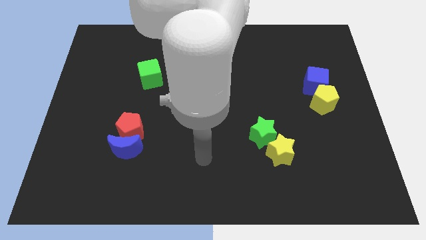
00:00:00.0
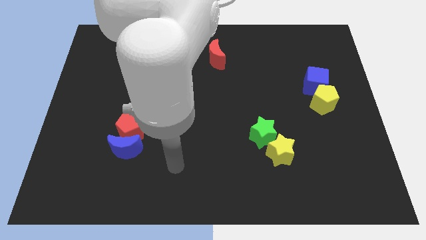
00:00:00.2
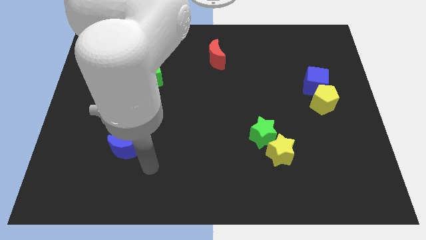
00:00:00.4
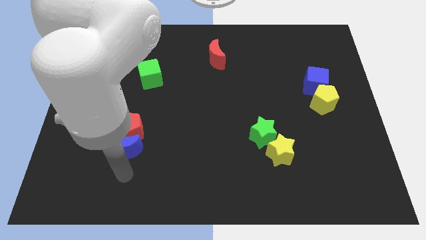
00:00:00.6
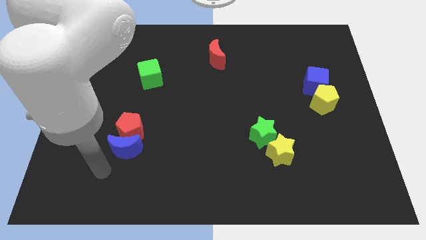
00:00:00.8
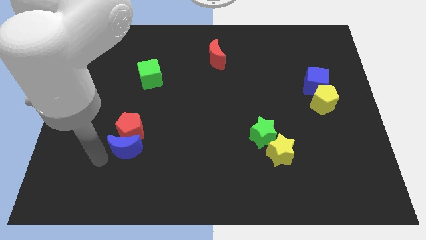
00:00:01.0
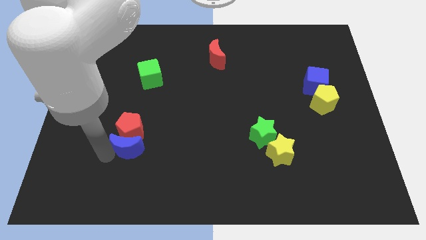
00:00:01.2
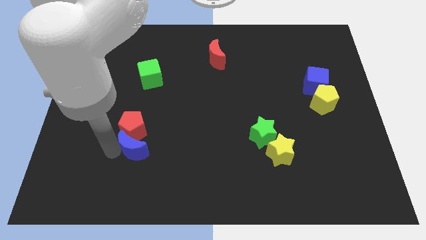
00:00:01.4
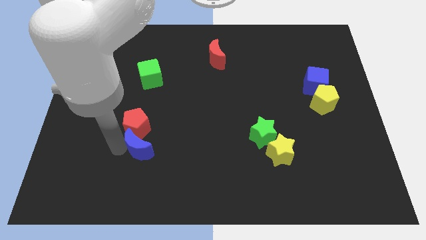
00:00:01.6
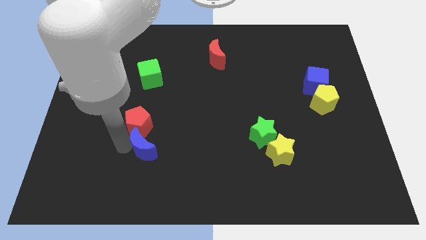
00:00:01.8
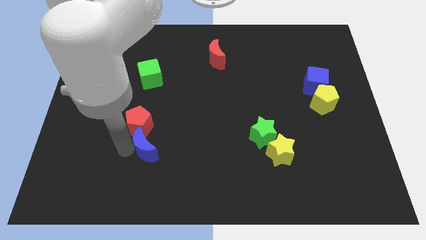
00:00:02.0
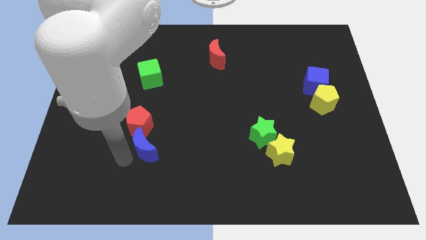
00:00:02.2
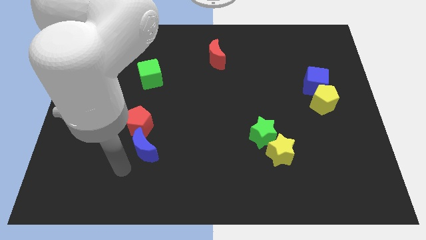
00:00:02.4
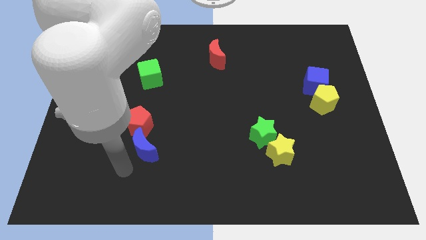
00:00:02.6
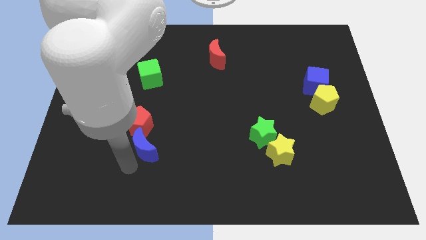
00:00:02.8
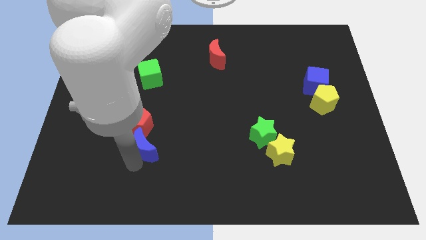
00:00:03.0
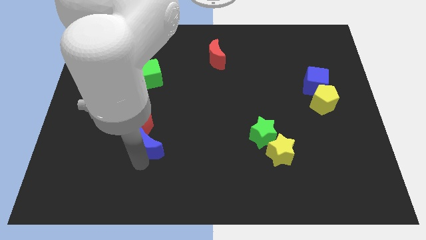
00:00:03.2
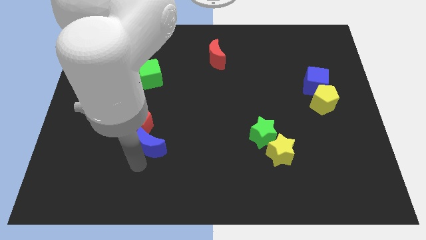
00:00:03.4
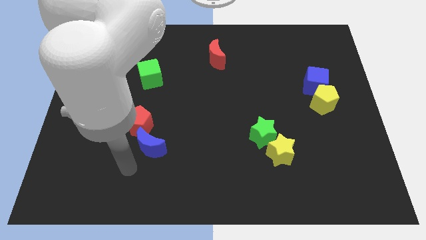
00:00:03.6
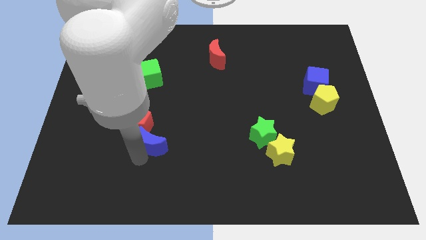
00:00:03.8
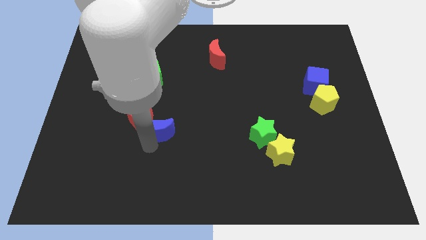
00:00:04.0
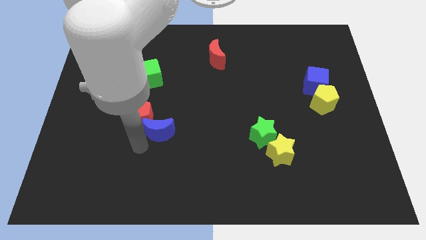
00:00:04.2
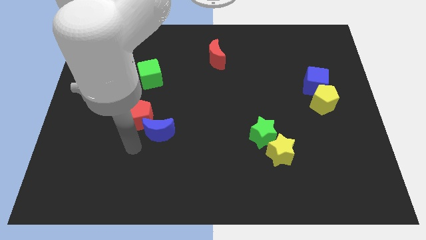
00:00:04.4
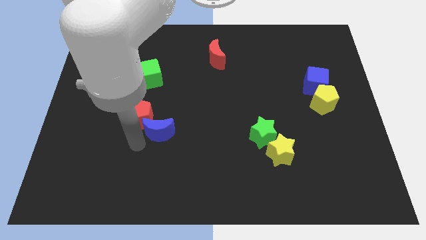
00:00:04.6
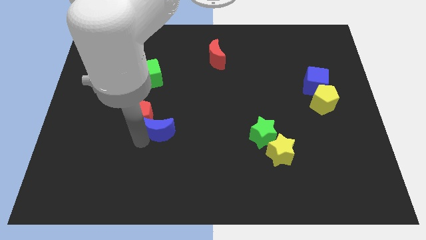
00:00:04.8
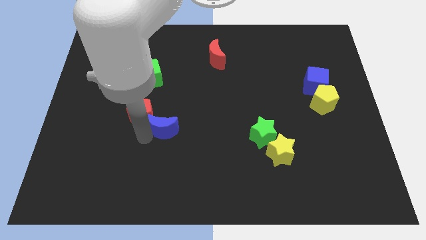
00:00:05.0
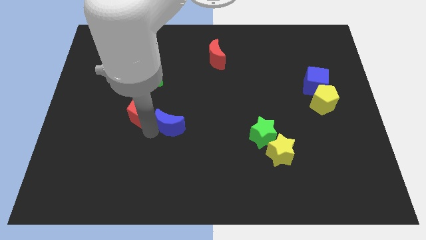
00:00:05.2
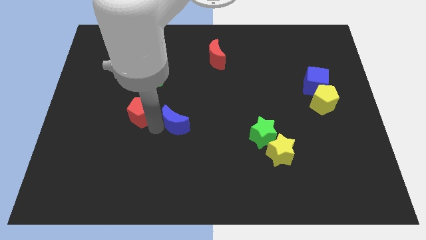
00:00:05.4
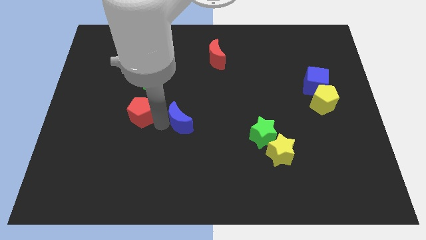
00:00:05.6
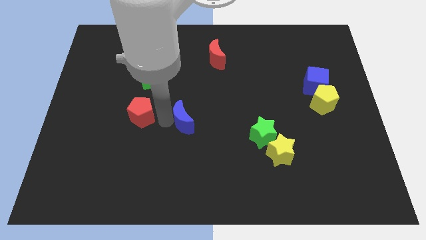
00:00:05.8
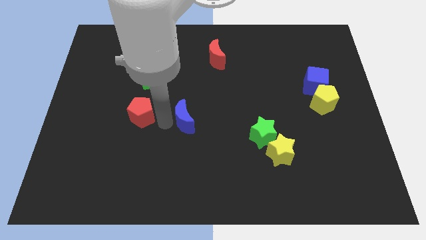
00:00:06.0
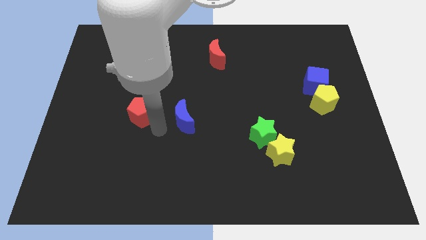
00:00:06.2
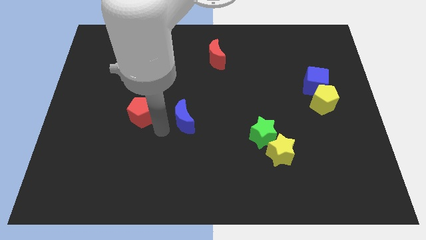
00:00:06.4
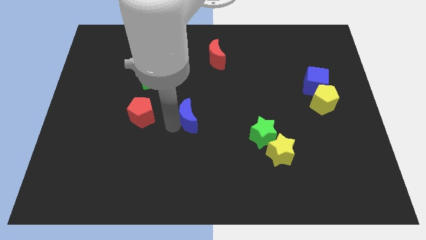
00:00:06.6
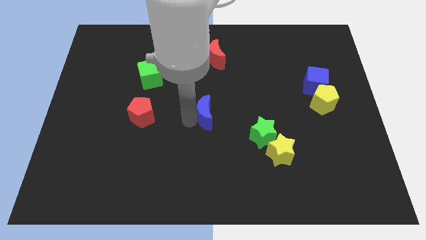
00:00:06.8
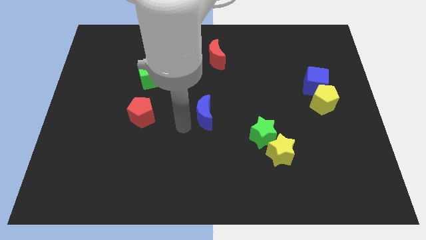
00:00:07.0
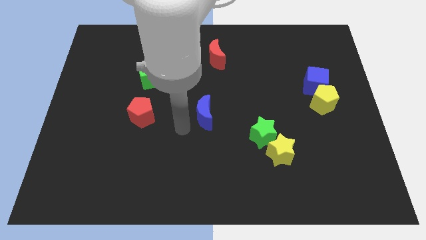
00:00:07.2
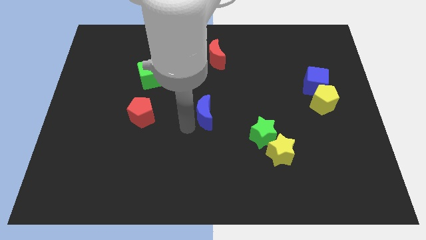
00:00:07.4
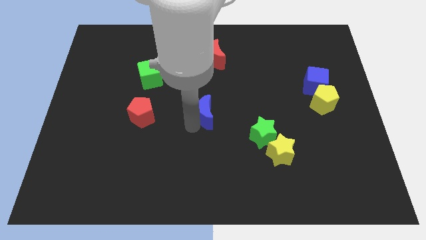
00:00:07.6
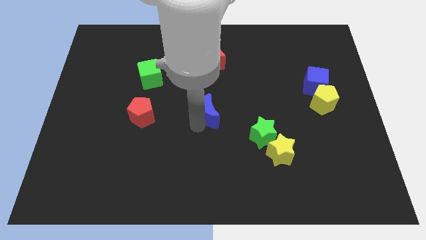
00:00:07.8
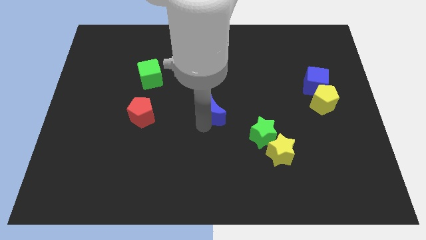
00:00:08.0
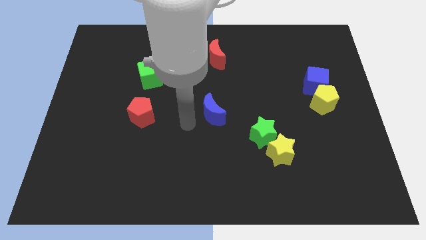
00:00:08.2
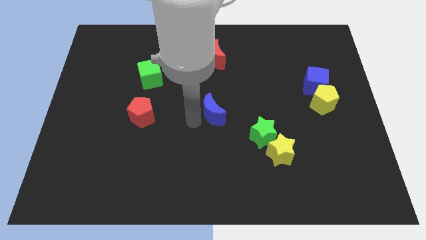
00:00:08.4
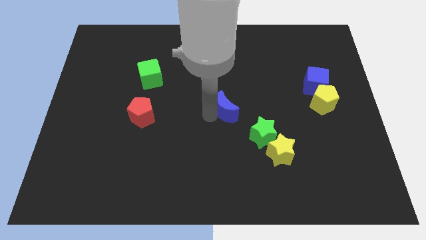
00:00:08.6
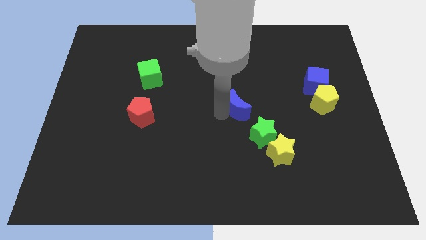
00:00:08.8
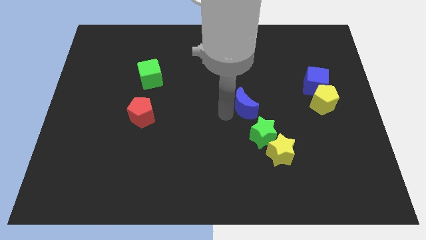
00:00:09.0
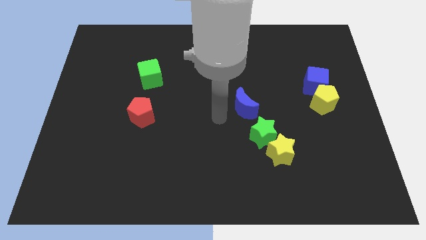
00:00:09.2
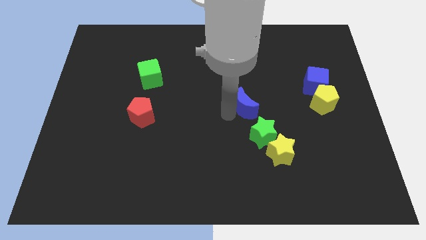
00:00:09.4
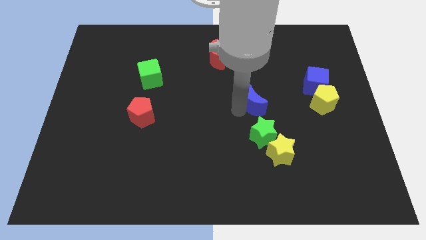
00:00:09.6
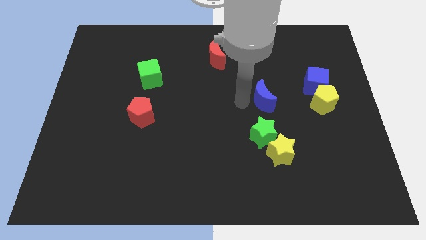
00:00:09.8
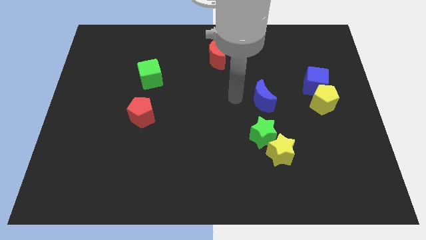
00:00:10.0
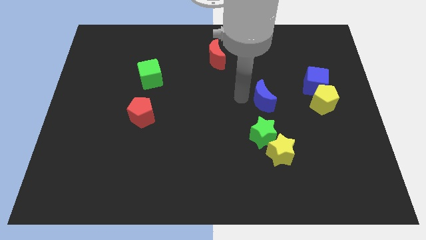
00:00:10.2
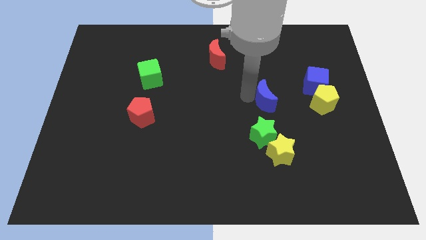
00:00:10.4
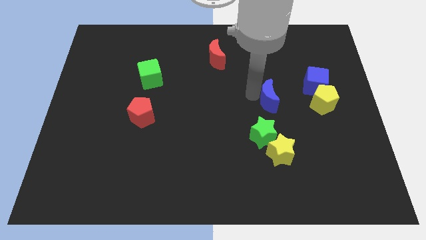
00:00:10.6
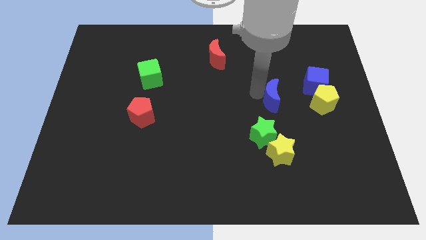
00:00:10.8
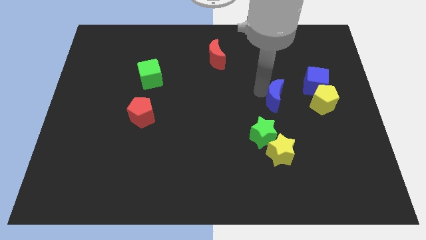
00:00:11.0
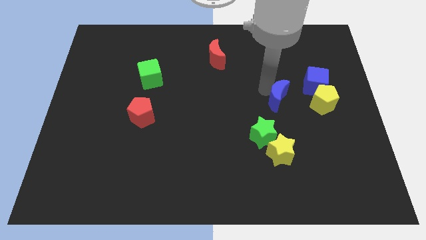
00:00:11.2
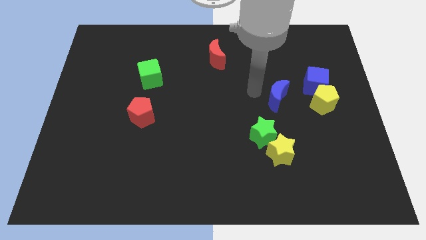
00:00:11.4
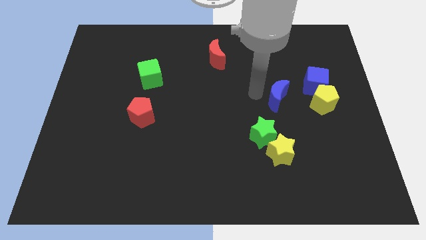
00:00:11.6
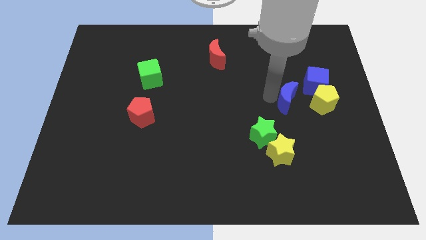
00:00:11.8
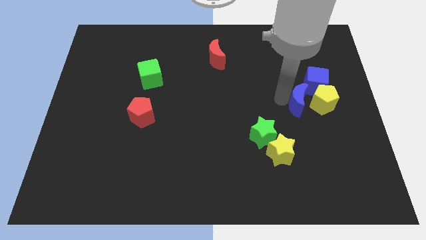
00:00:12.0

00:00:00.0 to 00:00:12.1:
push the blue moon to the yellow pentagon

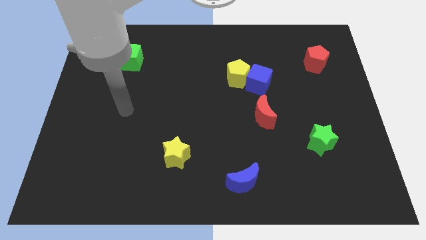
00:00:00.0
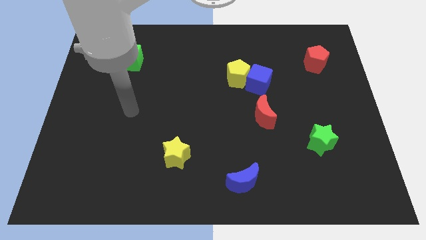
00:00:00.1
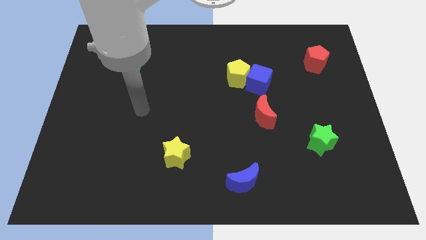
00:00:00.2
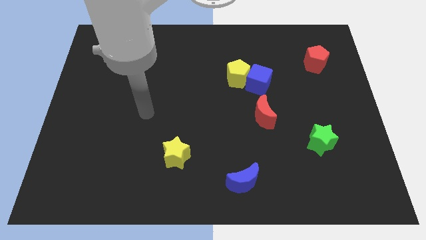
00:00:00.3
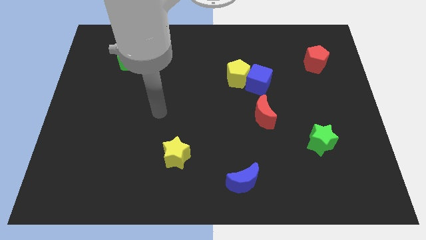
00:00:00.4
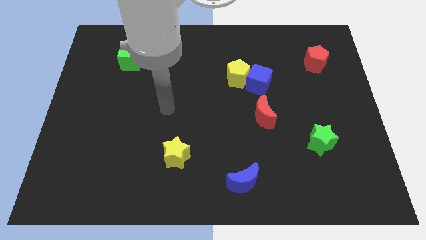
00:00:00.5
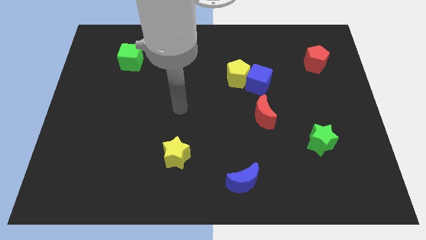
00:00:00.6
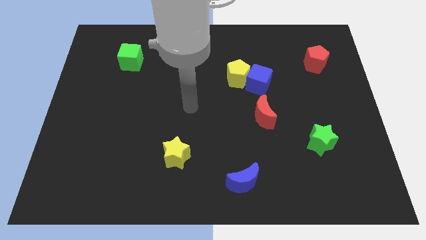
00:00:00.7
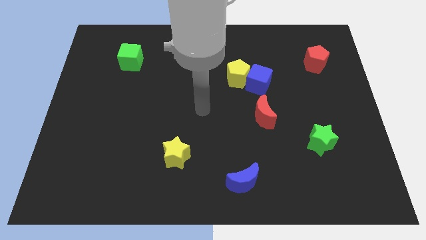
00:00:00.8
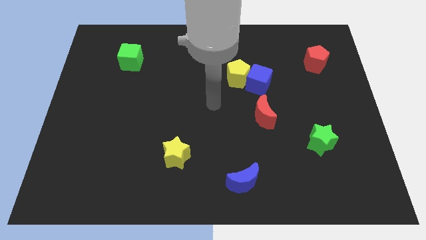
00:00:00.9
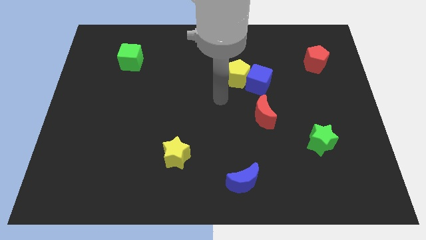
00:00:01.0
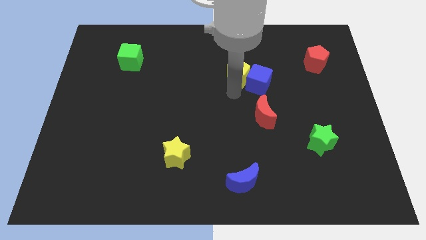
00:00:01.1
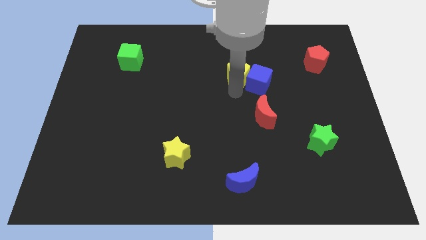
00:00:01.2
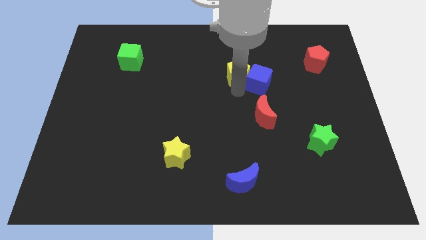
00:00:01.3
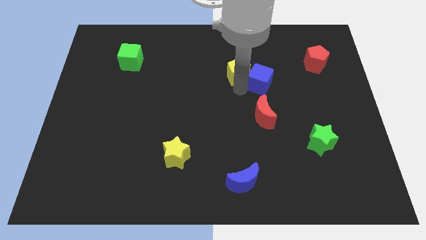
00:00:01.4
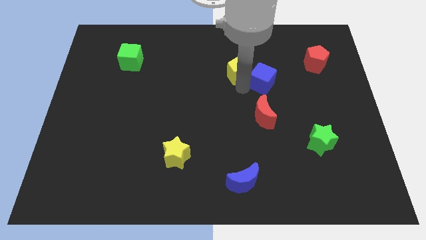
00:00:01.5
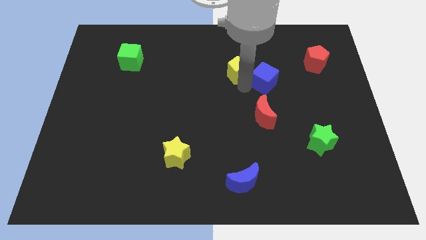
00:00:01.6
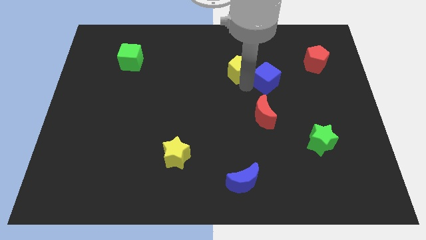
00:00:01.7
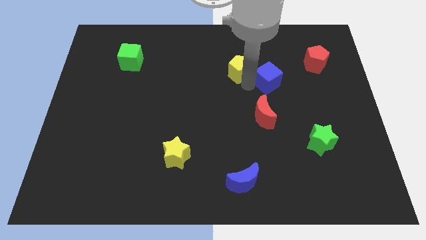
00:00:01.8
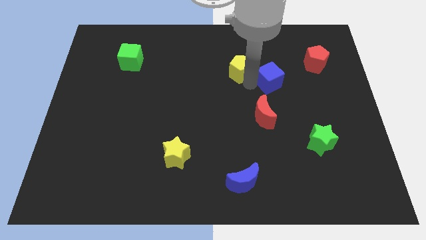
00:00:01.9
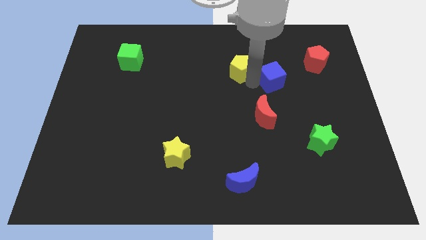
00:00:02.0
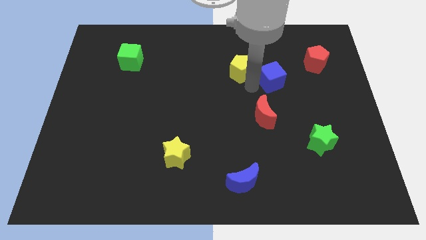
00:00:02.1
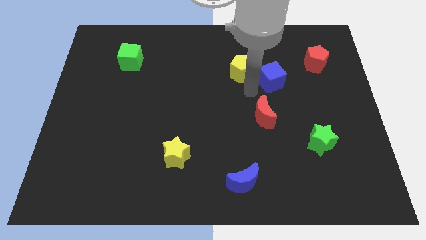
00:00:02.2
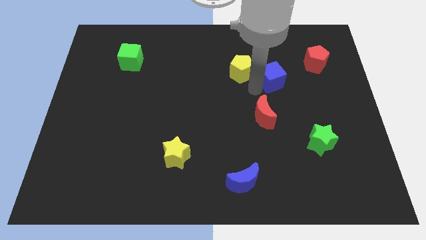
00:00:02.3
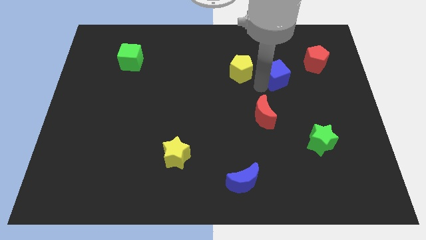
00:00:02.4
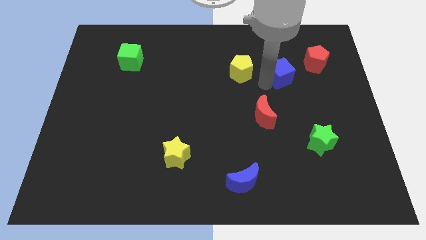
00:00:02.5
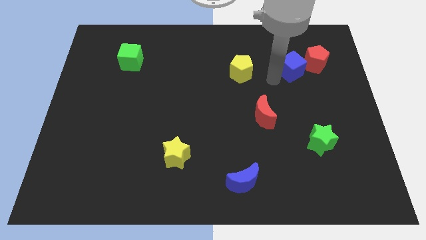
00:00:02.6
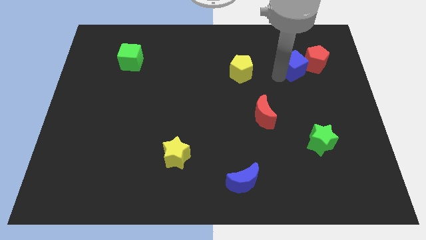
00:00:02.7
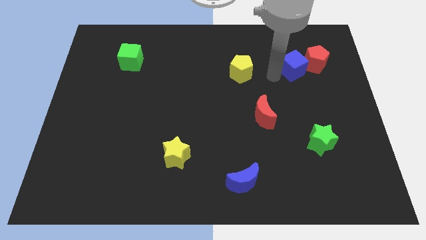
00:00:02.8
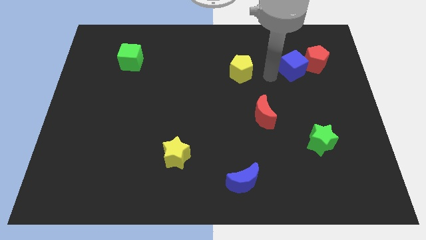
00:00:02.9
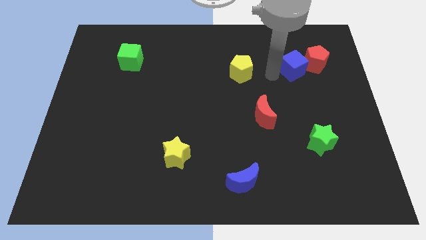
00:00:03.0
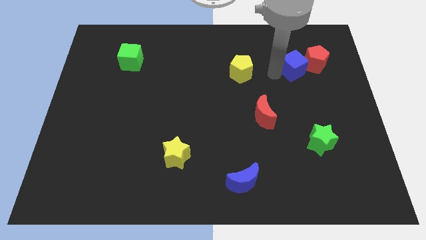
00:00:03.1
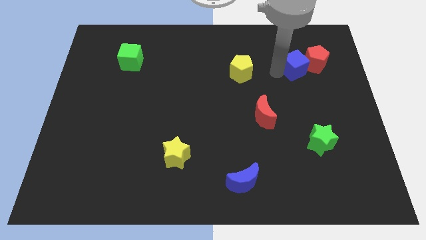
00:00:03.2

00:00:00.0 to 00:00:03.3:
move the blue cube towards the red pentagon
